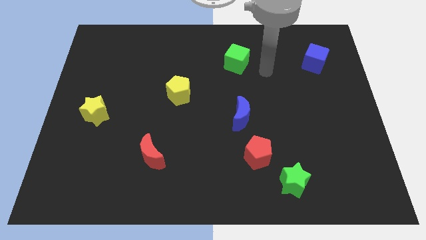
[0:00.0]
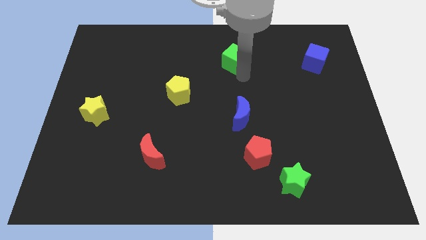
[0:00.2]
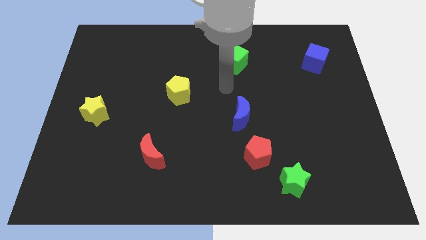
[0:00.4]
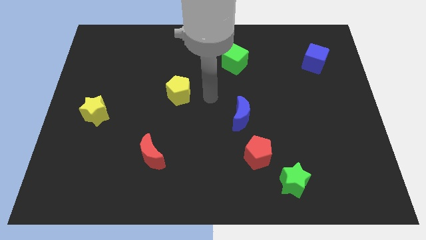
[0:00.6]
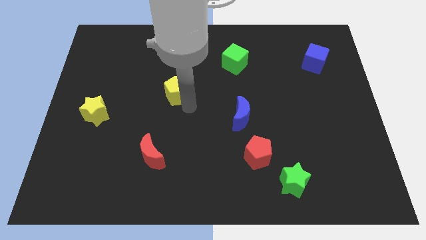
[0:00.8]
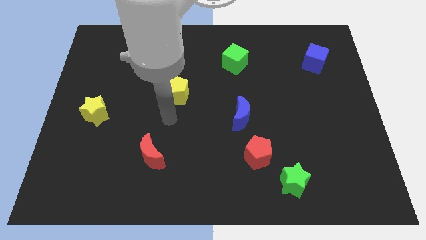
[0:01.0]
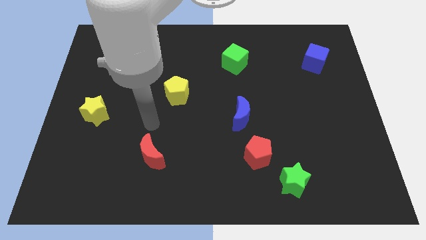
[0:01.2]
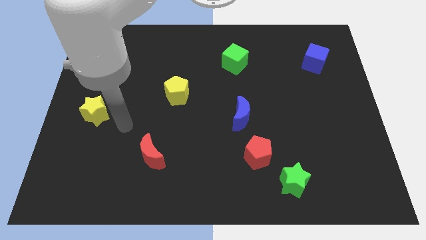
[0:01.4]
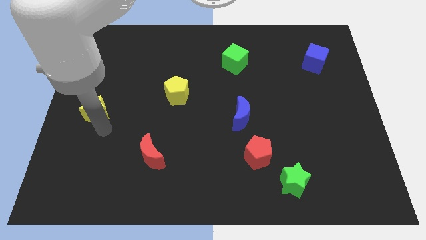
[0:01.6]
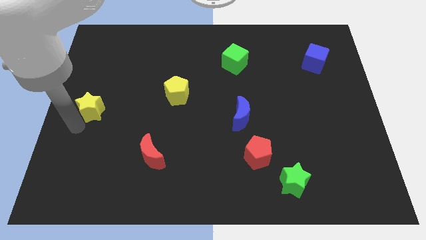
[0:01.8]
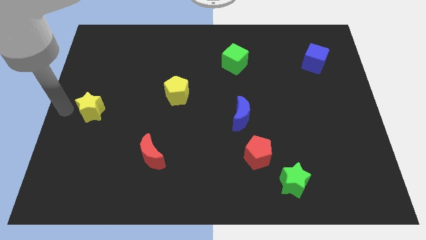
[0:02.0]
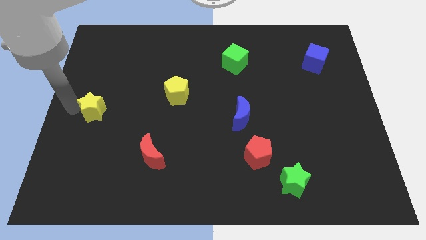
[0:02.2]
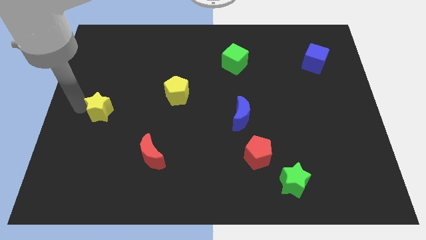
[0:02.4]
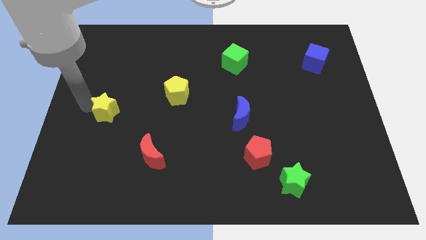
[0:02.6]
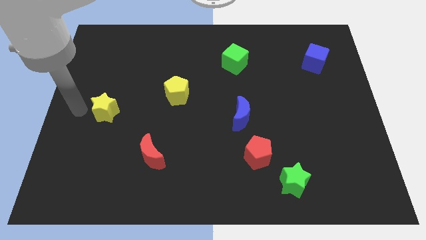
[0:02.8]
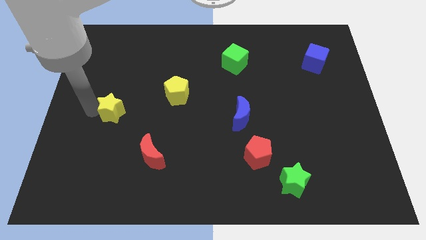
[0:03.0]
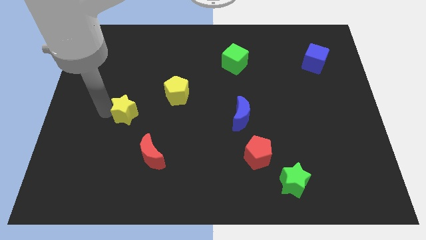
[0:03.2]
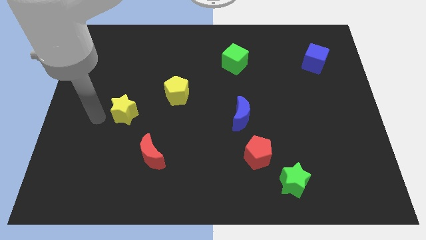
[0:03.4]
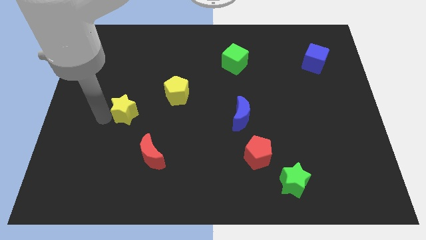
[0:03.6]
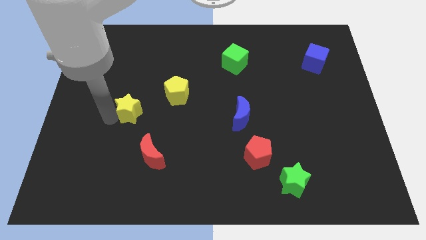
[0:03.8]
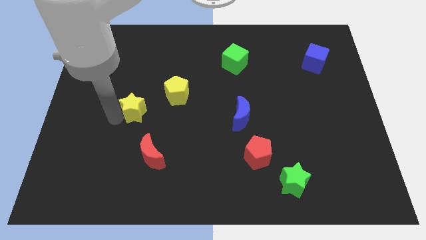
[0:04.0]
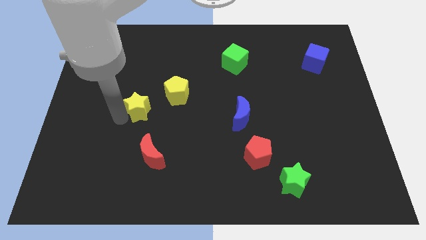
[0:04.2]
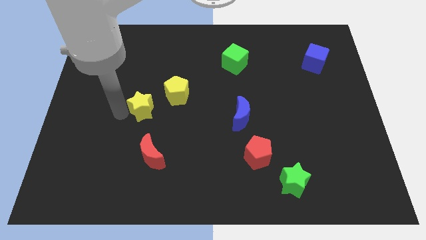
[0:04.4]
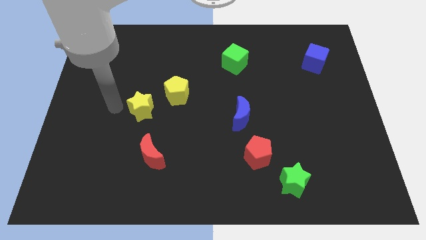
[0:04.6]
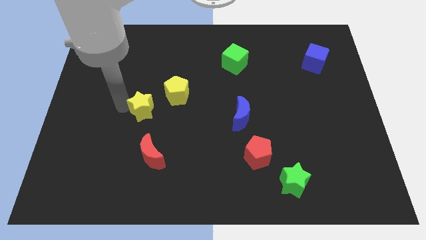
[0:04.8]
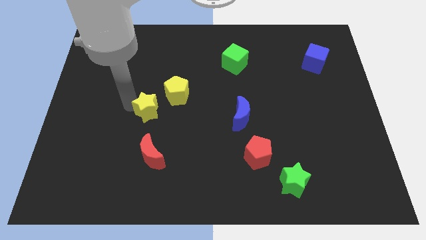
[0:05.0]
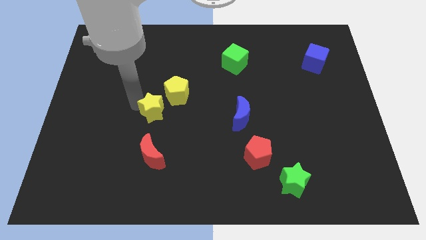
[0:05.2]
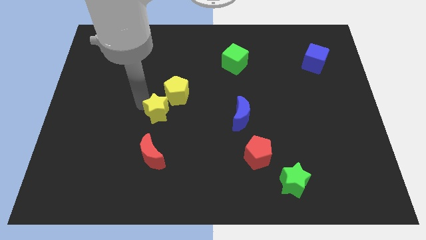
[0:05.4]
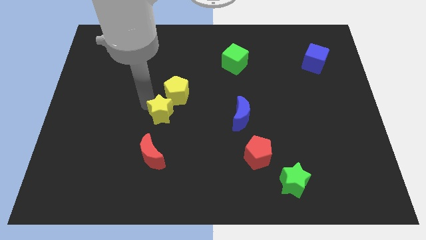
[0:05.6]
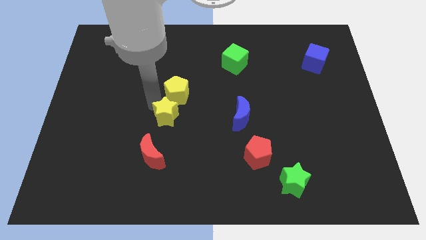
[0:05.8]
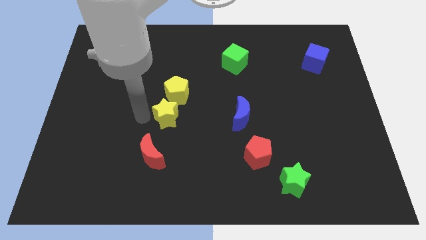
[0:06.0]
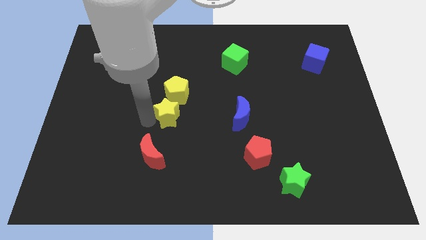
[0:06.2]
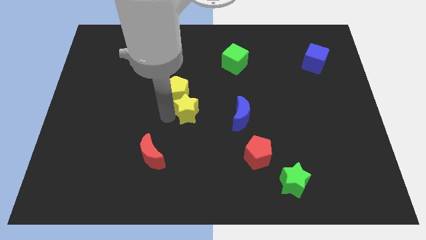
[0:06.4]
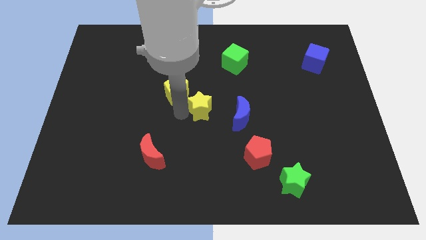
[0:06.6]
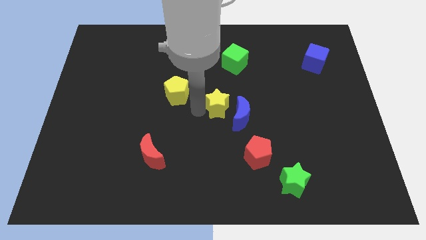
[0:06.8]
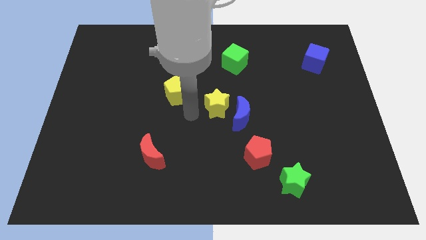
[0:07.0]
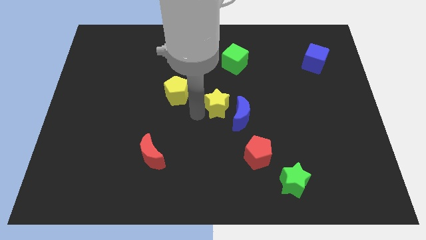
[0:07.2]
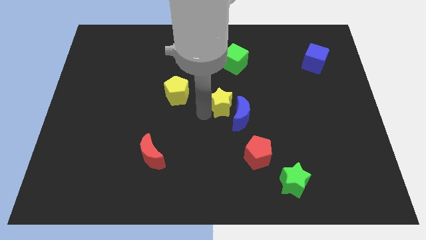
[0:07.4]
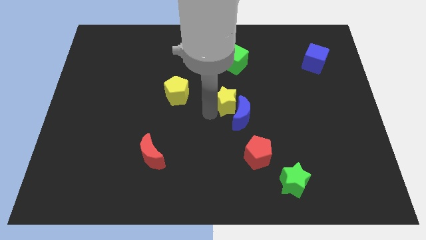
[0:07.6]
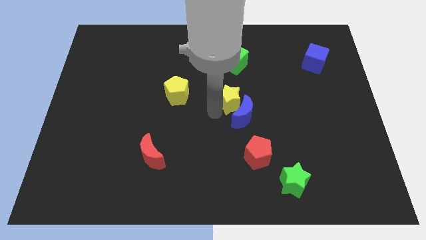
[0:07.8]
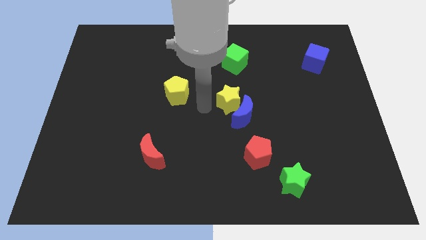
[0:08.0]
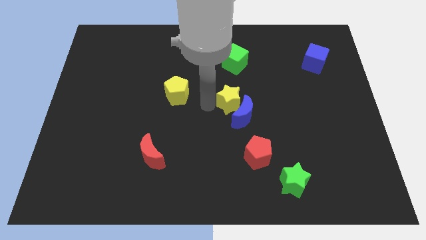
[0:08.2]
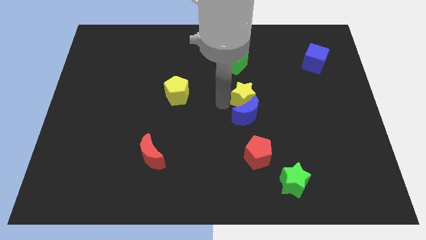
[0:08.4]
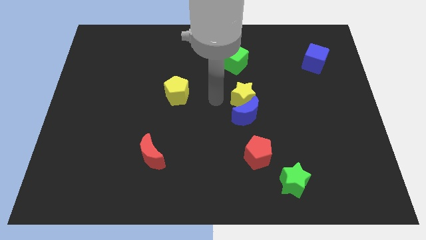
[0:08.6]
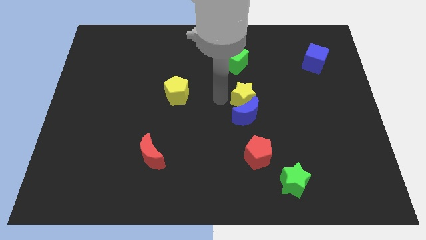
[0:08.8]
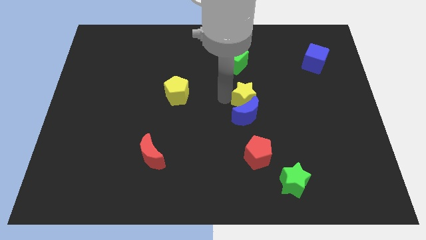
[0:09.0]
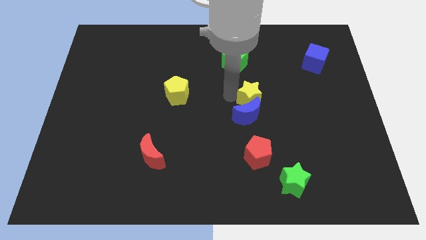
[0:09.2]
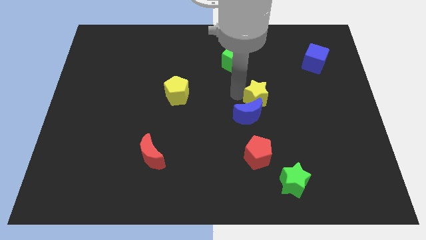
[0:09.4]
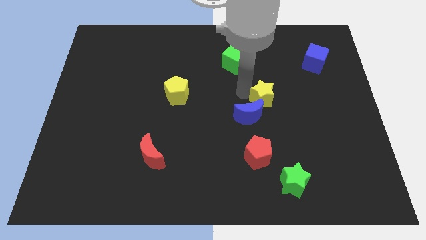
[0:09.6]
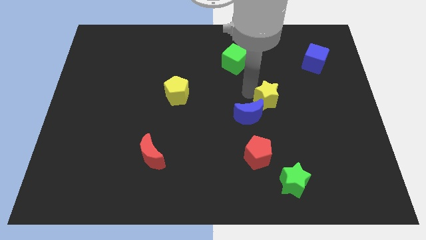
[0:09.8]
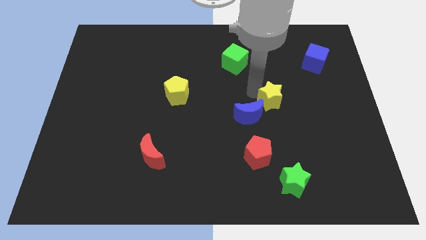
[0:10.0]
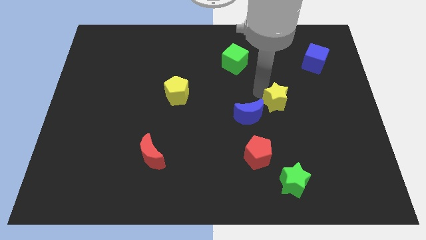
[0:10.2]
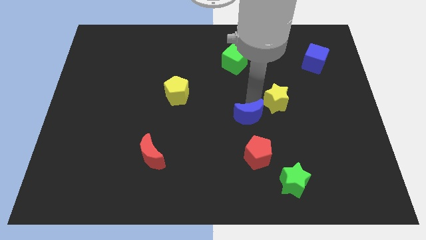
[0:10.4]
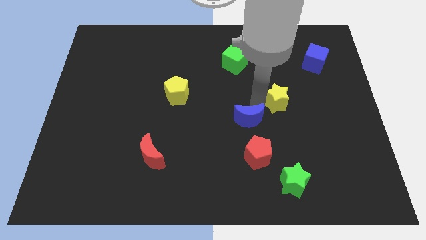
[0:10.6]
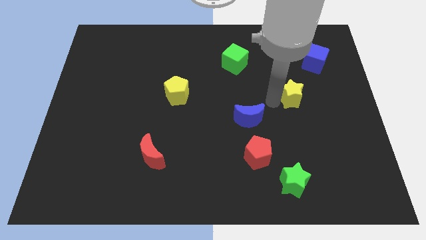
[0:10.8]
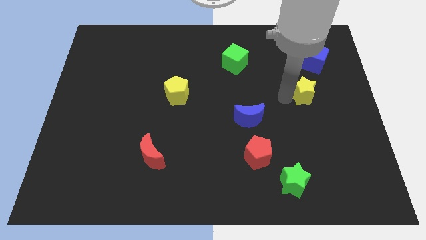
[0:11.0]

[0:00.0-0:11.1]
move the yellow star below the blue cube

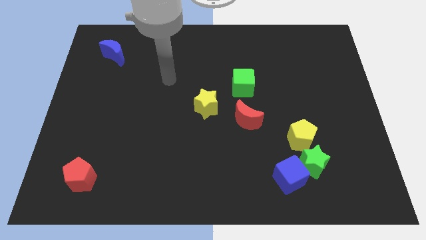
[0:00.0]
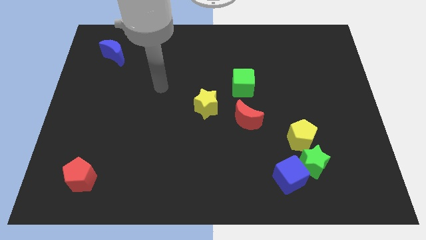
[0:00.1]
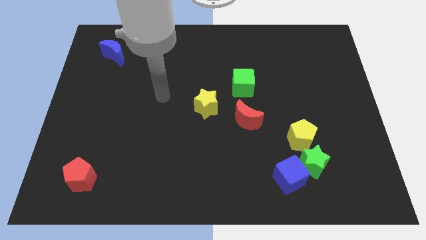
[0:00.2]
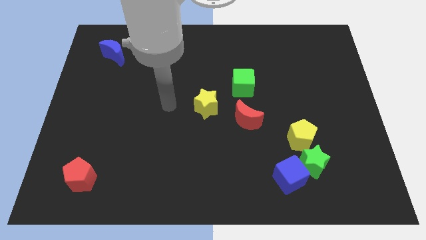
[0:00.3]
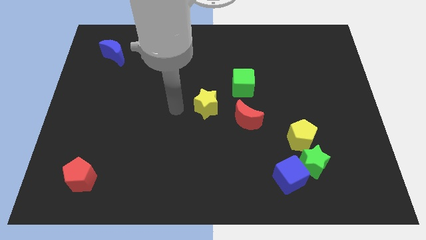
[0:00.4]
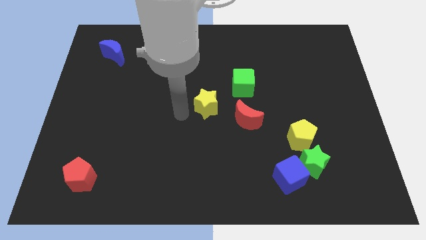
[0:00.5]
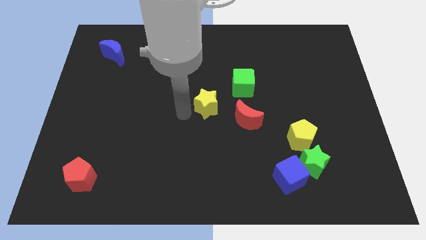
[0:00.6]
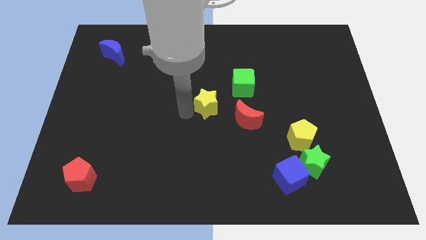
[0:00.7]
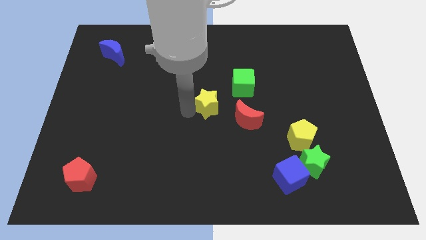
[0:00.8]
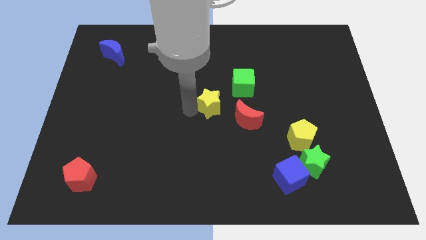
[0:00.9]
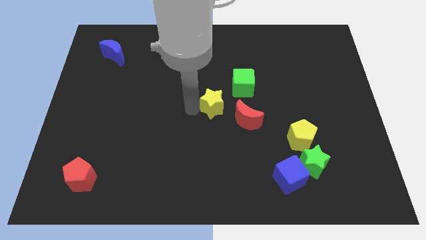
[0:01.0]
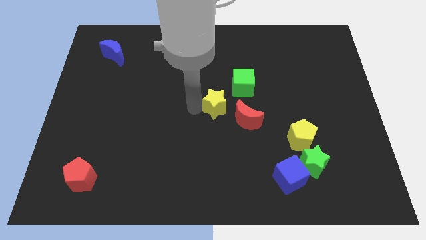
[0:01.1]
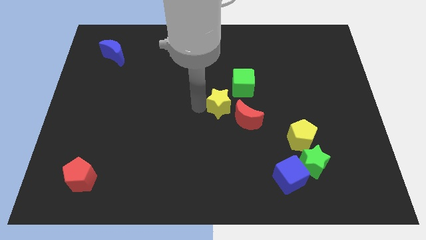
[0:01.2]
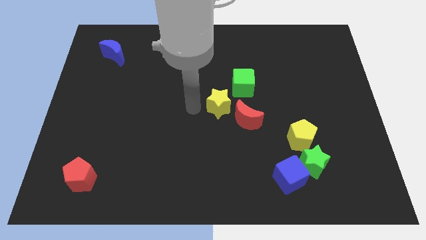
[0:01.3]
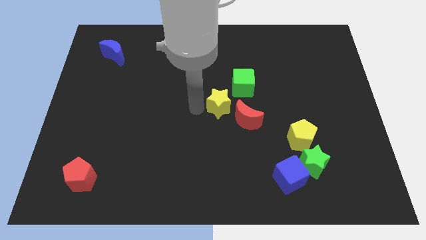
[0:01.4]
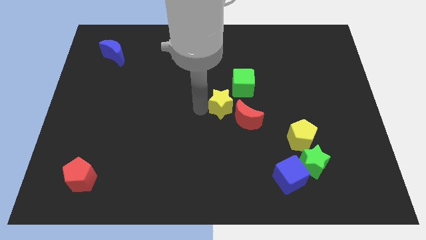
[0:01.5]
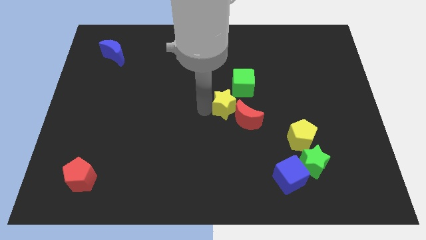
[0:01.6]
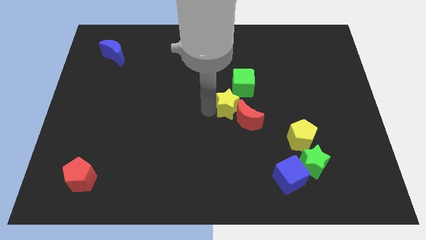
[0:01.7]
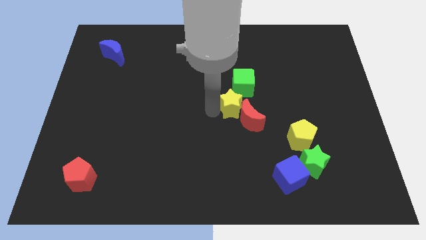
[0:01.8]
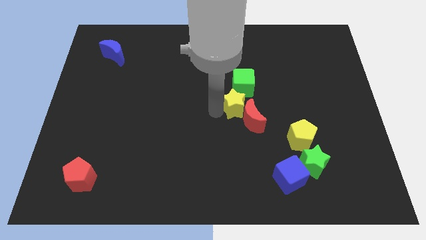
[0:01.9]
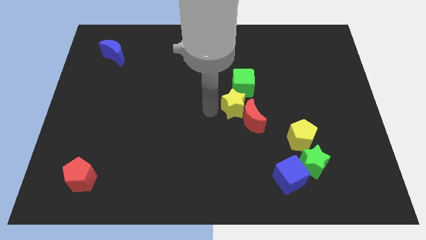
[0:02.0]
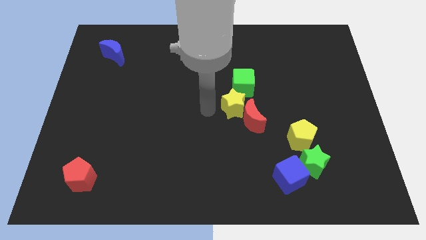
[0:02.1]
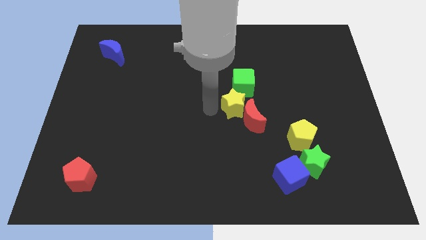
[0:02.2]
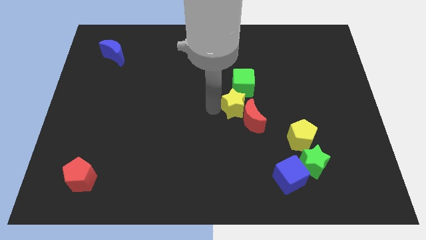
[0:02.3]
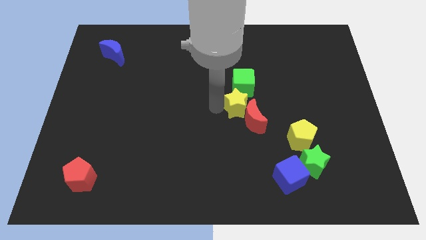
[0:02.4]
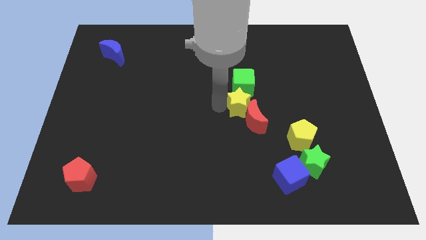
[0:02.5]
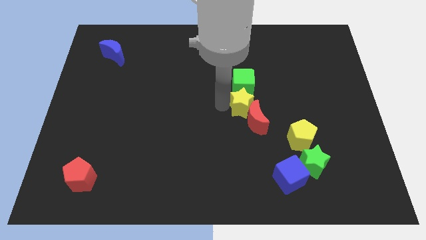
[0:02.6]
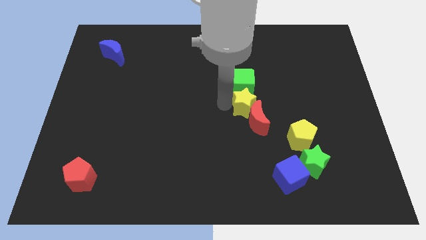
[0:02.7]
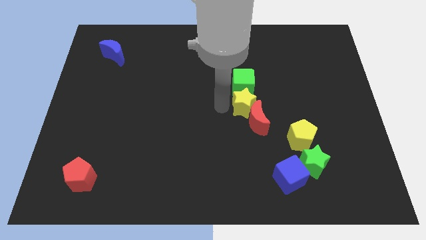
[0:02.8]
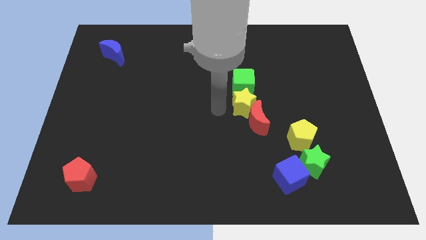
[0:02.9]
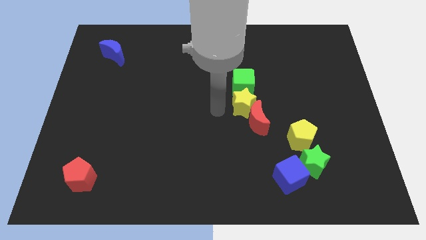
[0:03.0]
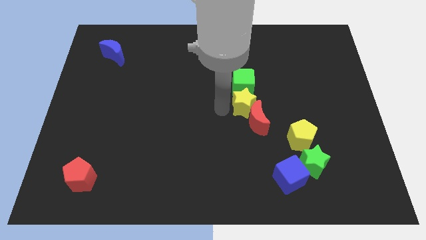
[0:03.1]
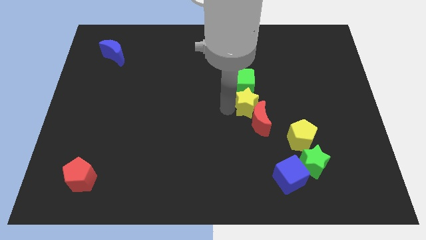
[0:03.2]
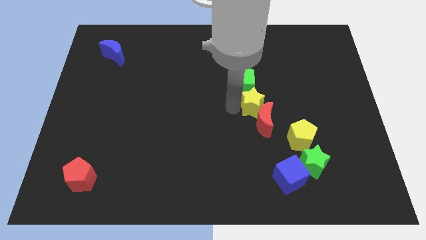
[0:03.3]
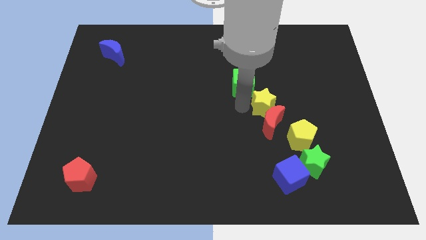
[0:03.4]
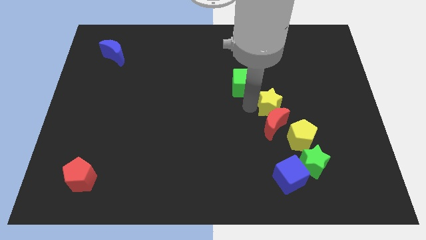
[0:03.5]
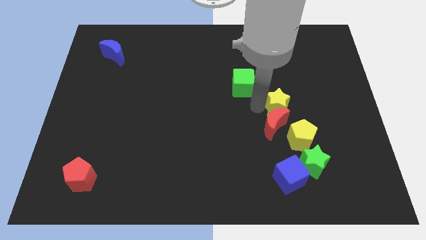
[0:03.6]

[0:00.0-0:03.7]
move the yellow star to the top of the yellow pentagon
